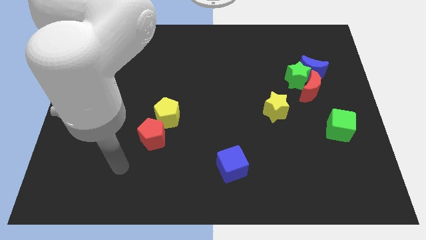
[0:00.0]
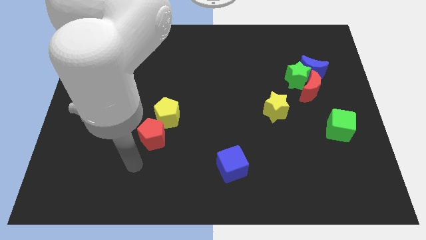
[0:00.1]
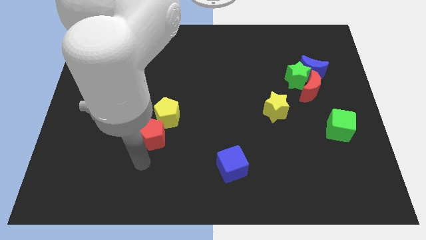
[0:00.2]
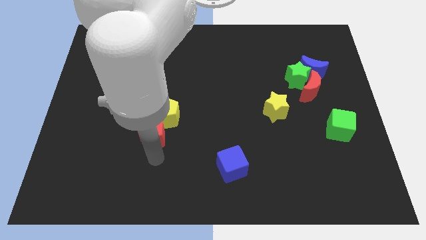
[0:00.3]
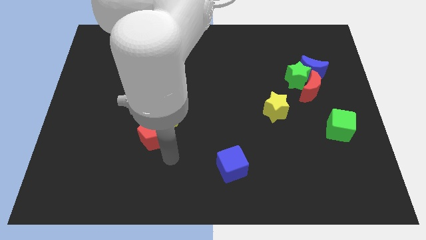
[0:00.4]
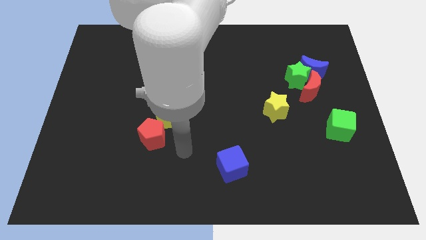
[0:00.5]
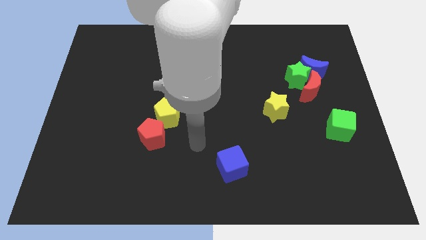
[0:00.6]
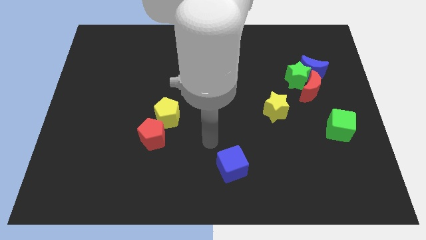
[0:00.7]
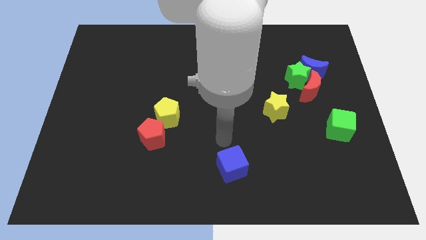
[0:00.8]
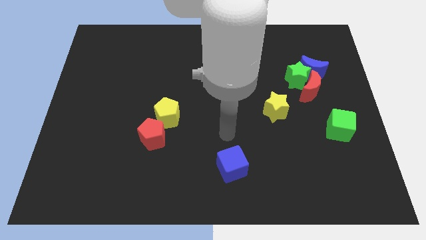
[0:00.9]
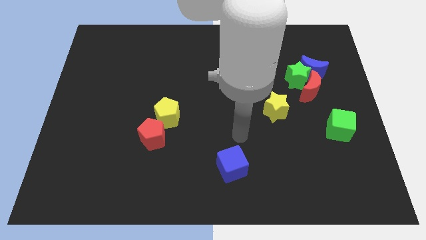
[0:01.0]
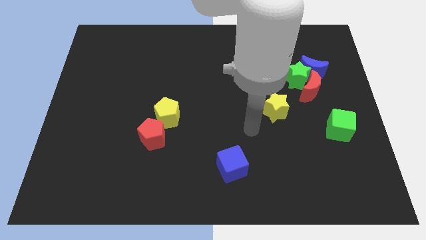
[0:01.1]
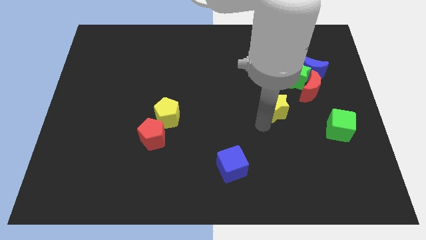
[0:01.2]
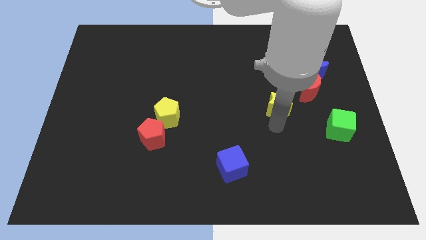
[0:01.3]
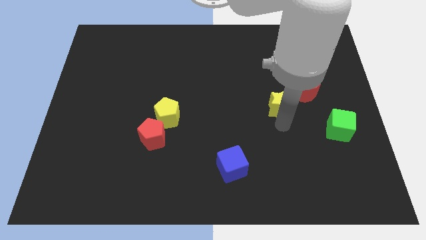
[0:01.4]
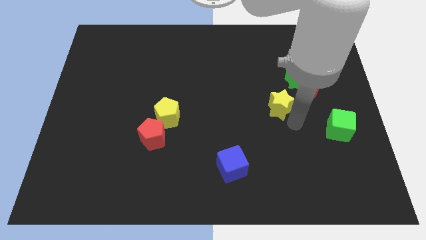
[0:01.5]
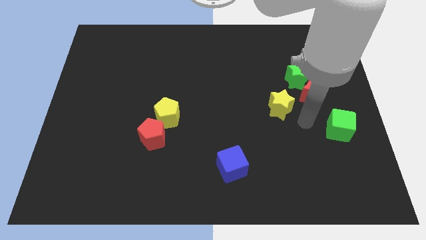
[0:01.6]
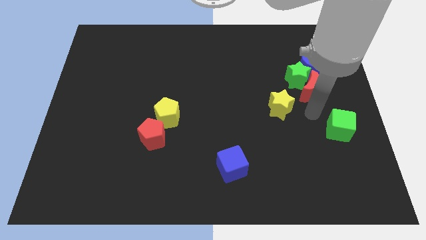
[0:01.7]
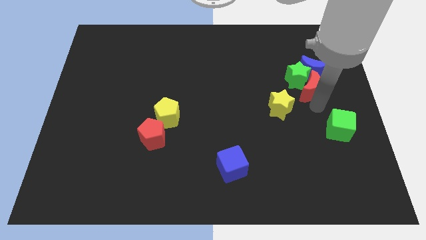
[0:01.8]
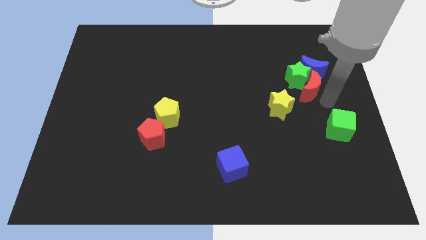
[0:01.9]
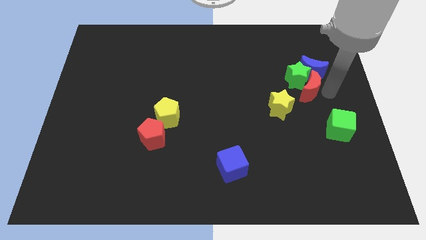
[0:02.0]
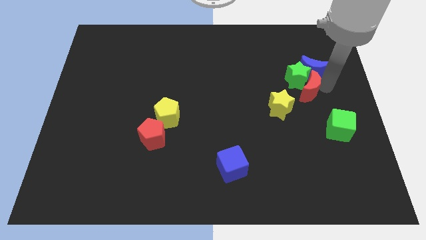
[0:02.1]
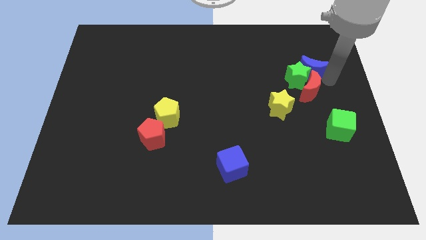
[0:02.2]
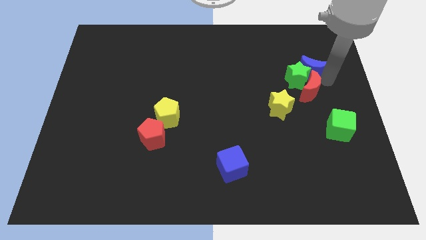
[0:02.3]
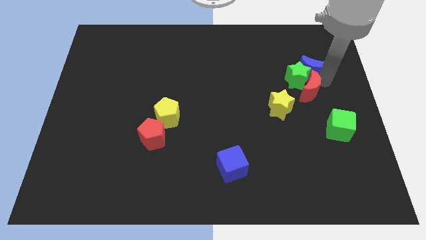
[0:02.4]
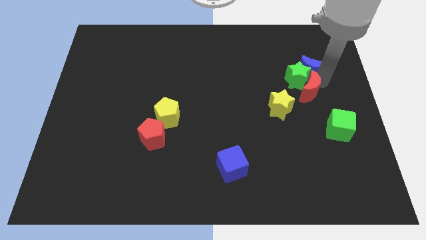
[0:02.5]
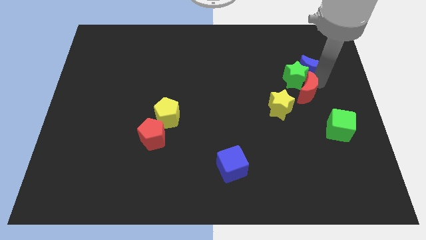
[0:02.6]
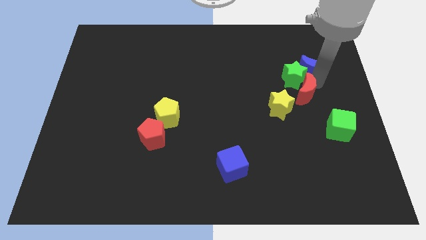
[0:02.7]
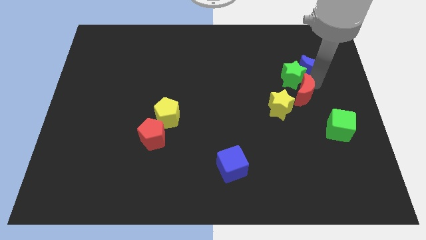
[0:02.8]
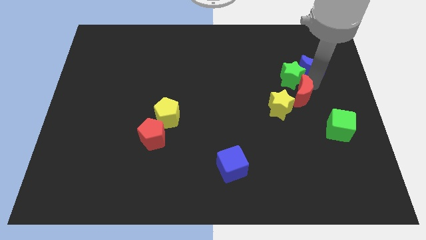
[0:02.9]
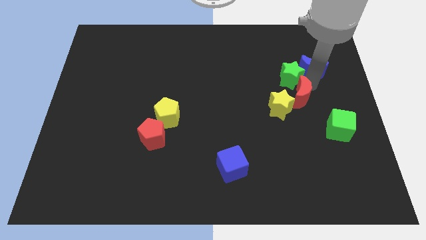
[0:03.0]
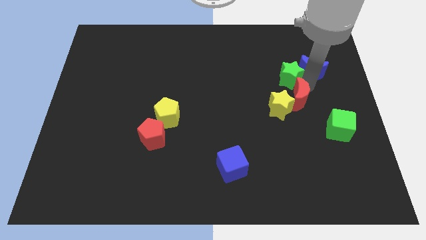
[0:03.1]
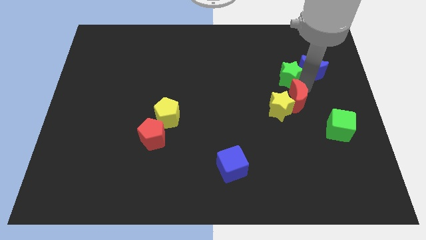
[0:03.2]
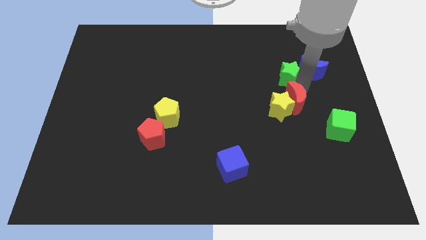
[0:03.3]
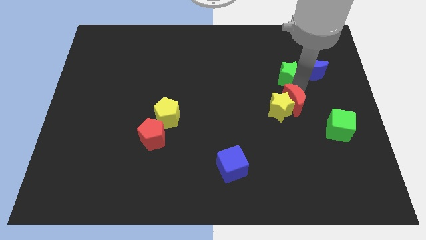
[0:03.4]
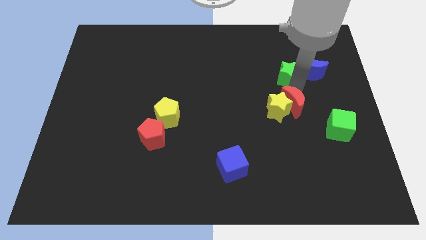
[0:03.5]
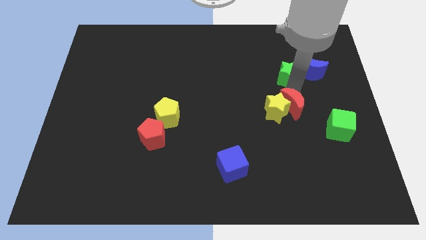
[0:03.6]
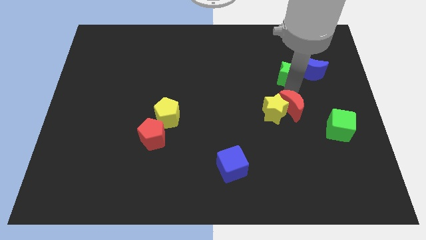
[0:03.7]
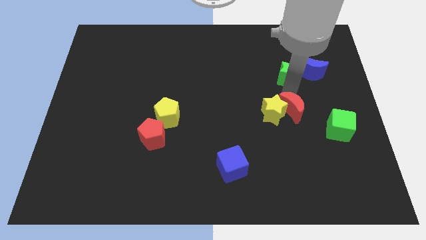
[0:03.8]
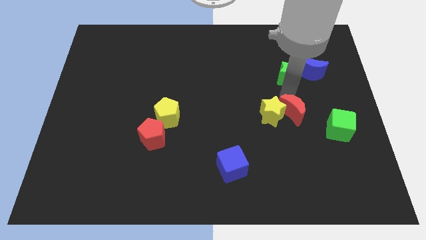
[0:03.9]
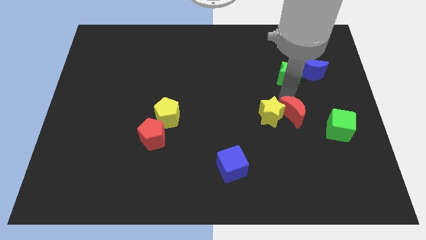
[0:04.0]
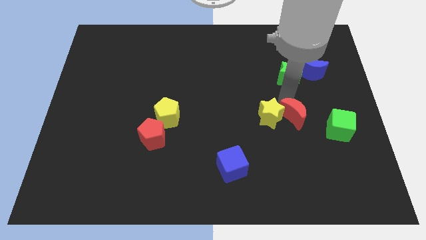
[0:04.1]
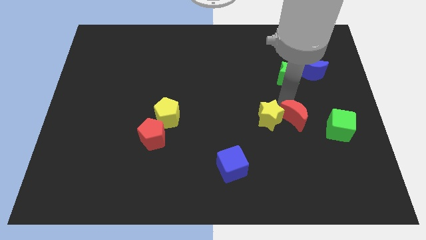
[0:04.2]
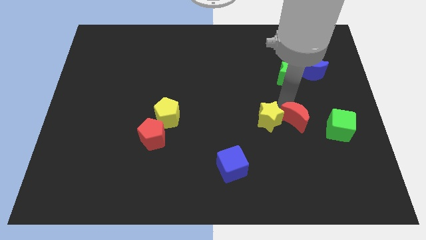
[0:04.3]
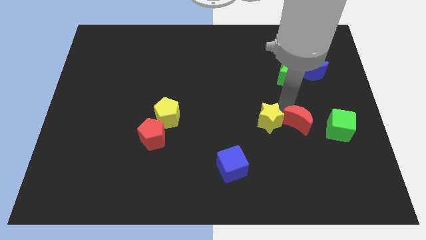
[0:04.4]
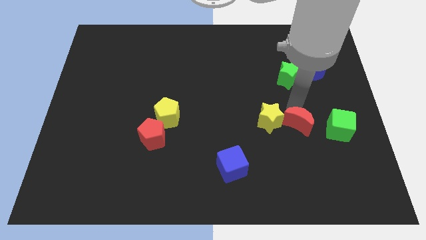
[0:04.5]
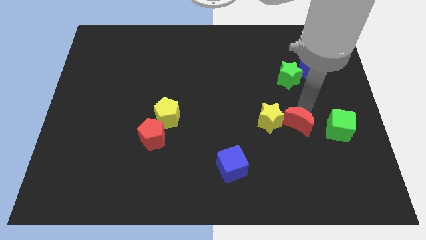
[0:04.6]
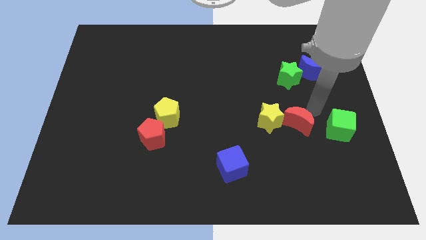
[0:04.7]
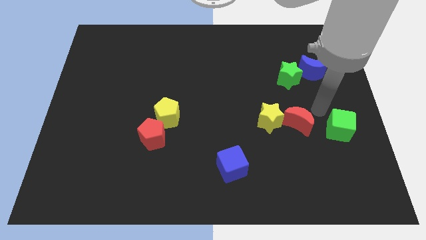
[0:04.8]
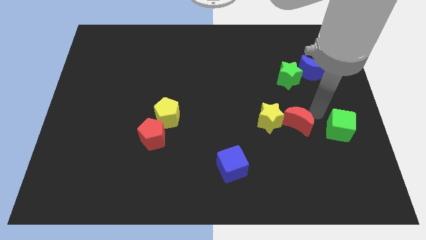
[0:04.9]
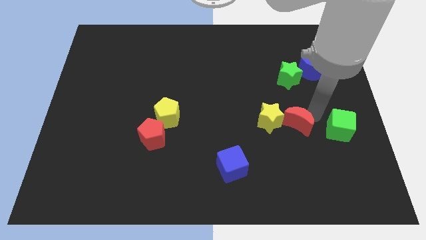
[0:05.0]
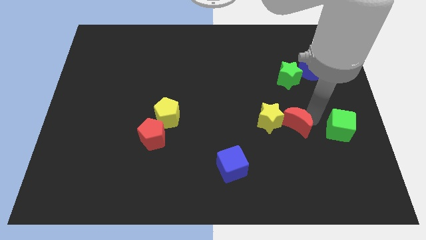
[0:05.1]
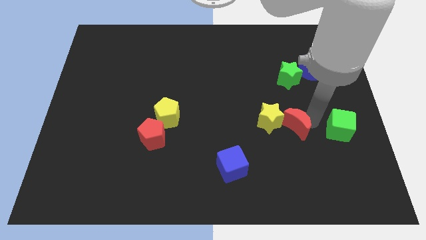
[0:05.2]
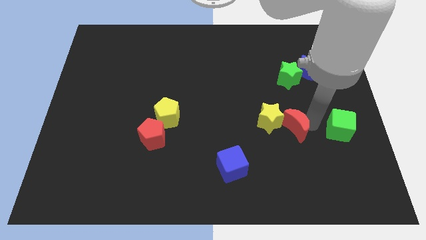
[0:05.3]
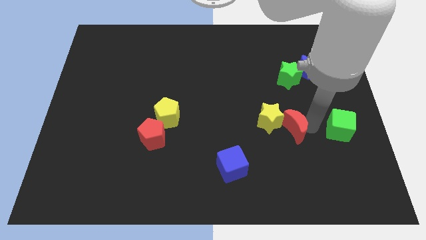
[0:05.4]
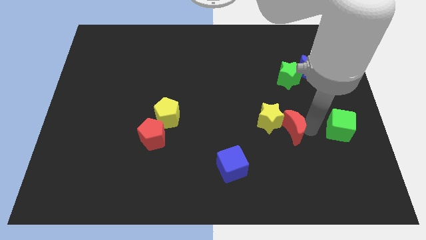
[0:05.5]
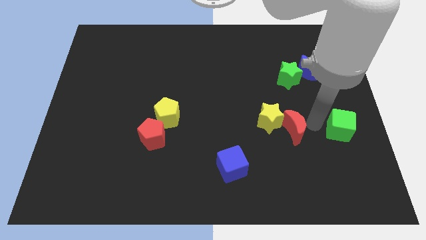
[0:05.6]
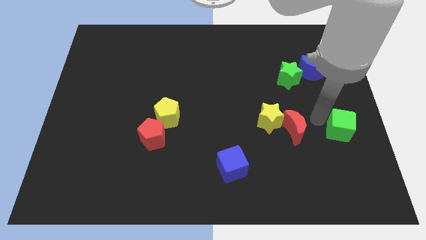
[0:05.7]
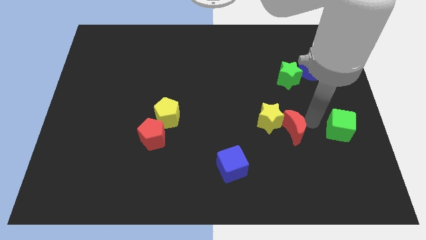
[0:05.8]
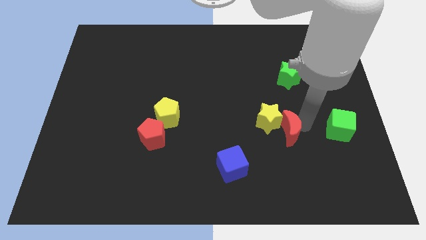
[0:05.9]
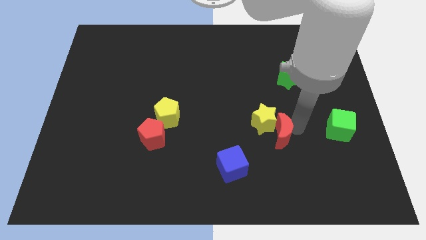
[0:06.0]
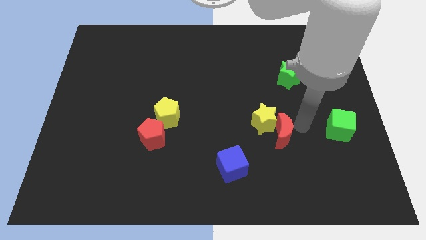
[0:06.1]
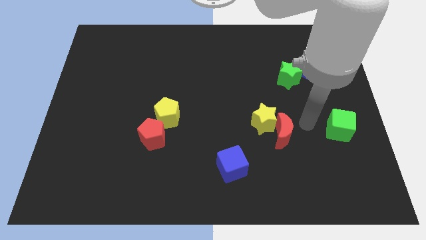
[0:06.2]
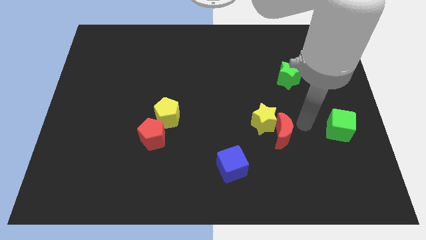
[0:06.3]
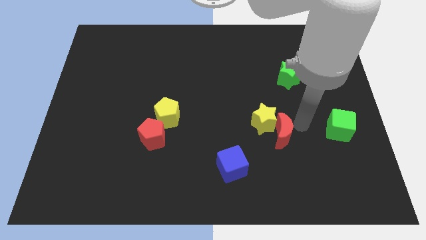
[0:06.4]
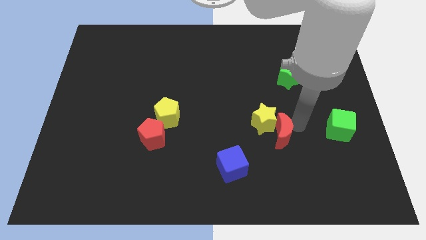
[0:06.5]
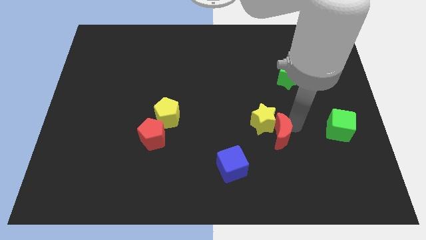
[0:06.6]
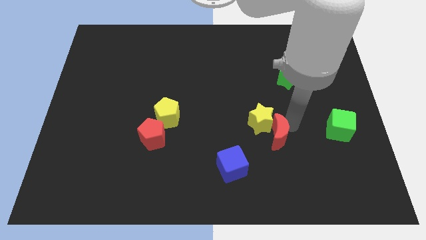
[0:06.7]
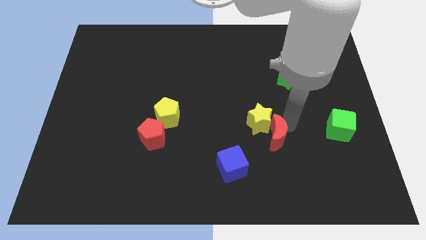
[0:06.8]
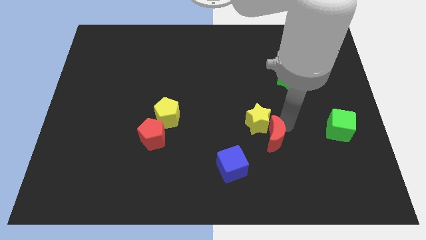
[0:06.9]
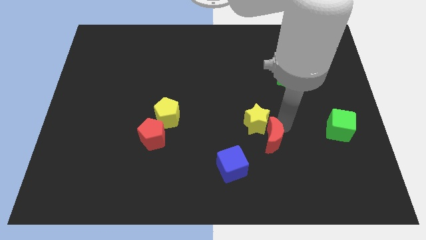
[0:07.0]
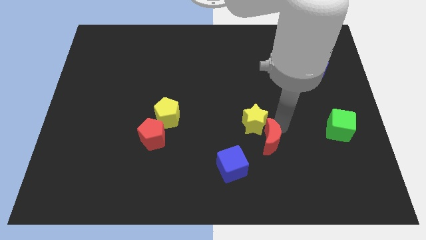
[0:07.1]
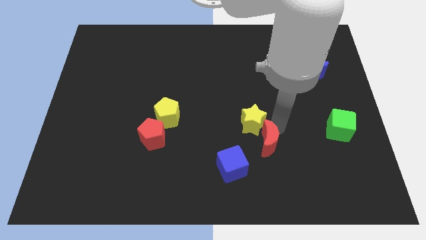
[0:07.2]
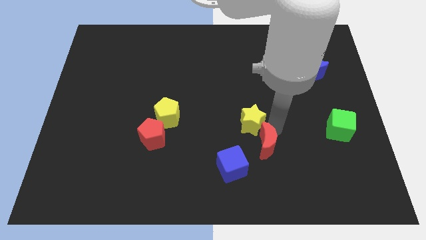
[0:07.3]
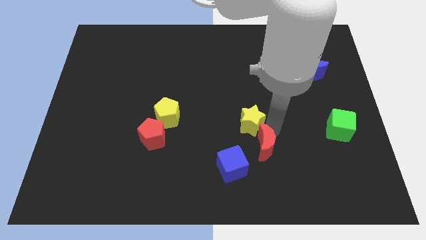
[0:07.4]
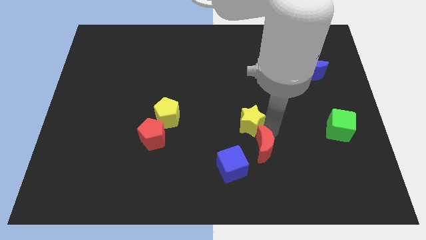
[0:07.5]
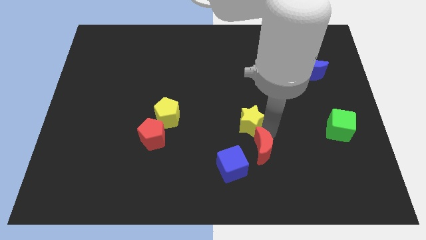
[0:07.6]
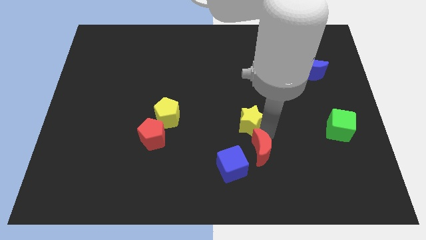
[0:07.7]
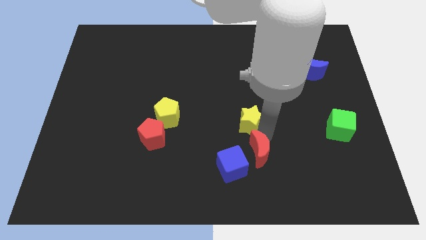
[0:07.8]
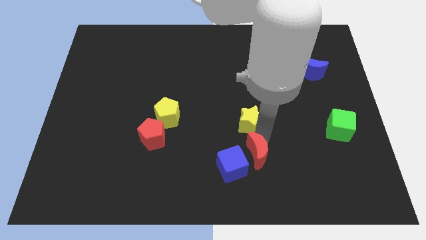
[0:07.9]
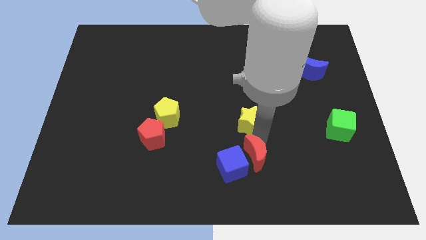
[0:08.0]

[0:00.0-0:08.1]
move the red moon next to the blue cube
